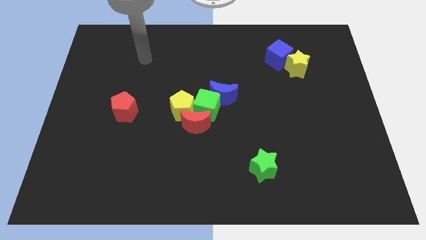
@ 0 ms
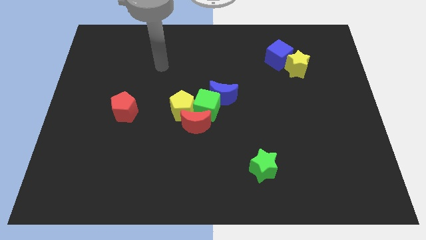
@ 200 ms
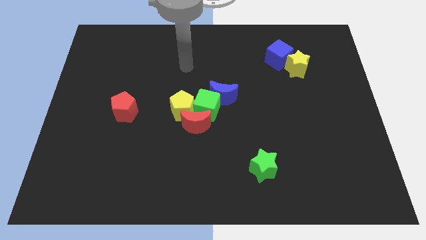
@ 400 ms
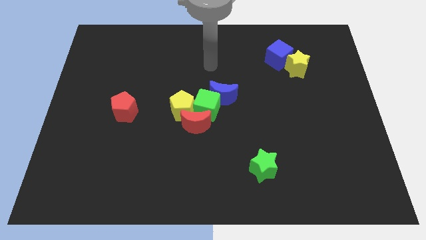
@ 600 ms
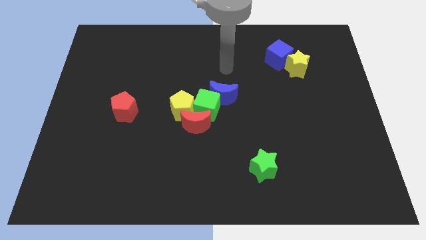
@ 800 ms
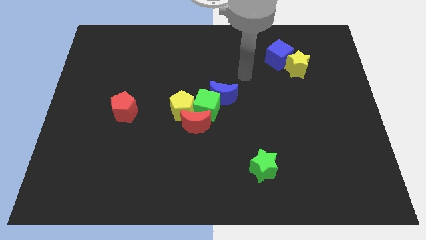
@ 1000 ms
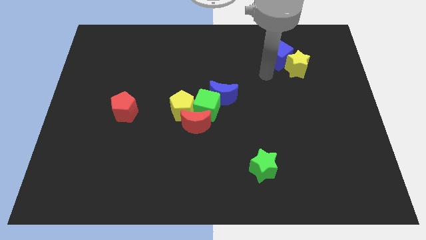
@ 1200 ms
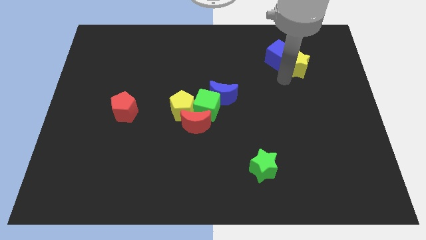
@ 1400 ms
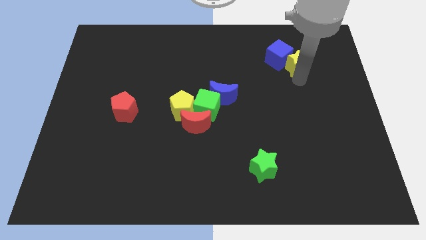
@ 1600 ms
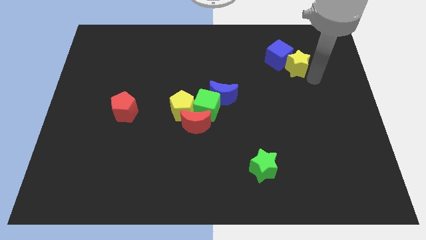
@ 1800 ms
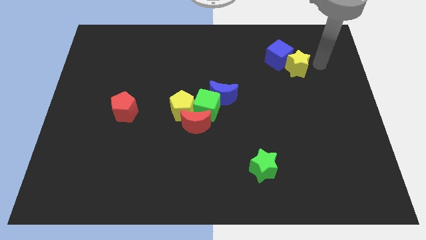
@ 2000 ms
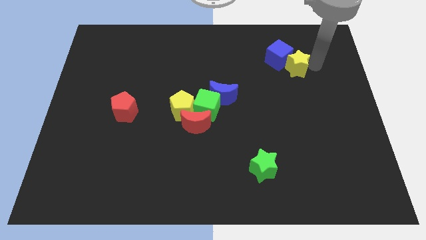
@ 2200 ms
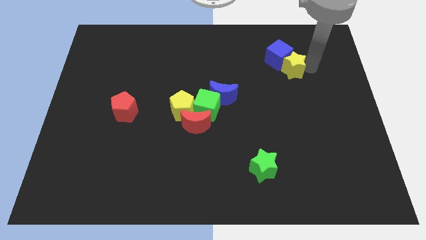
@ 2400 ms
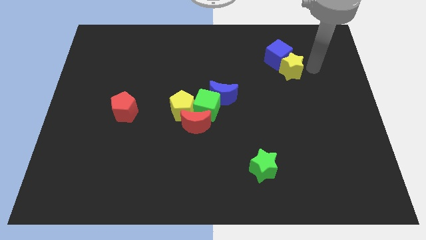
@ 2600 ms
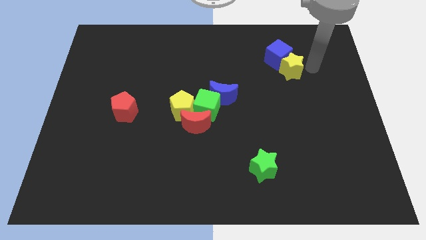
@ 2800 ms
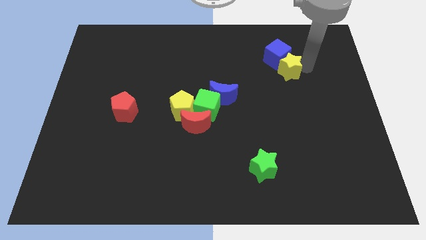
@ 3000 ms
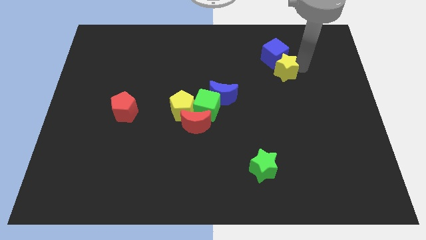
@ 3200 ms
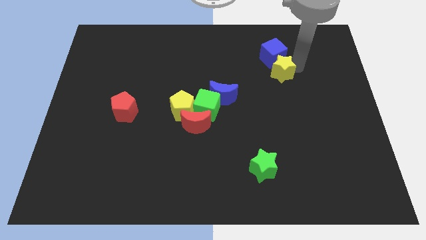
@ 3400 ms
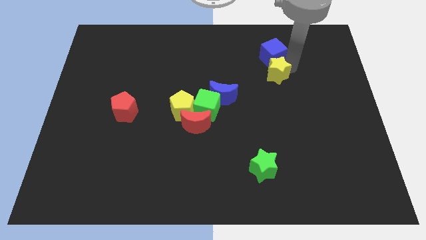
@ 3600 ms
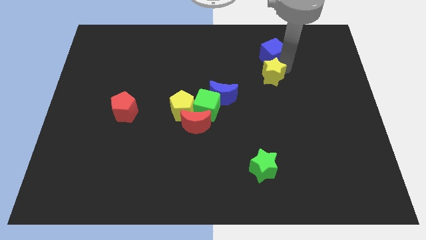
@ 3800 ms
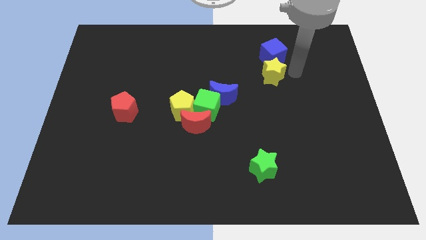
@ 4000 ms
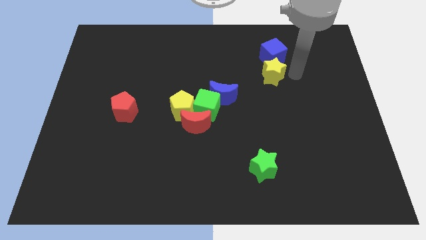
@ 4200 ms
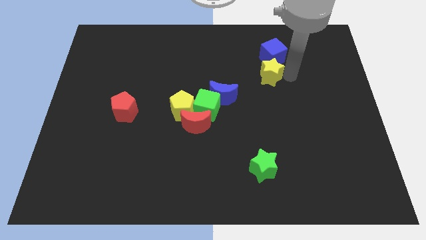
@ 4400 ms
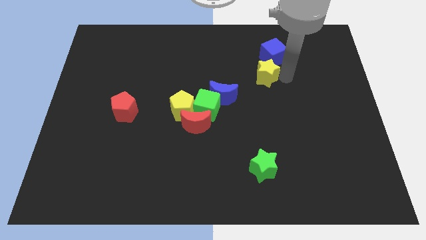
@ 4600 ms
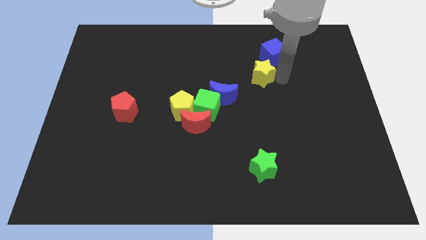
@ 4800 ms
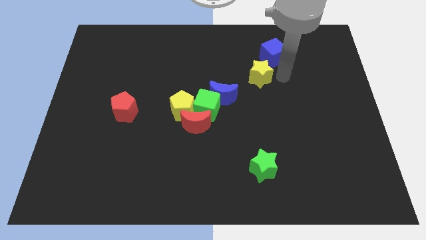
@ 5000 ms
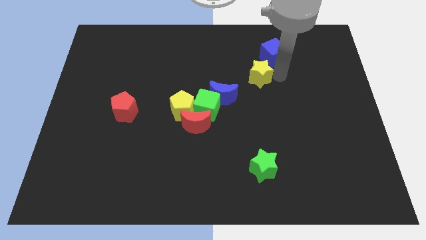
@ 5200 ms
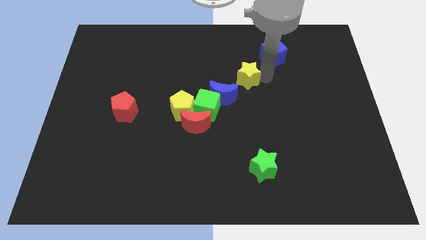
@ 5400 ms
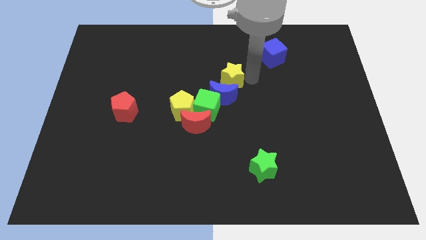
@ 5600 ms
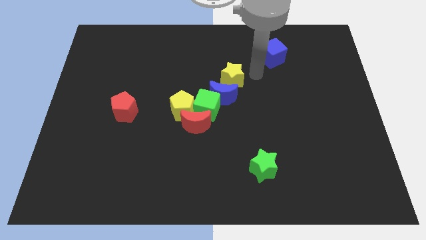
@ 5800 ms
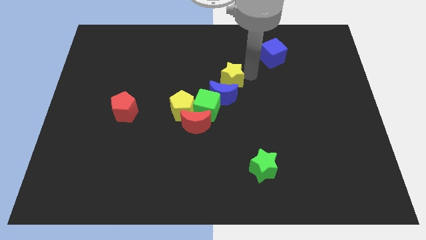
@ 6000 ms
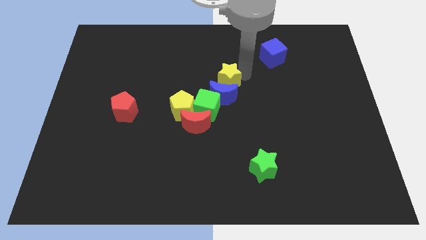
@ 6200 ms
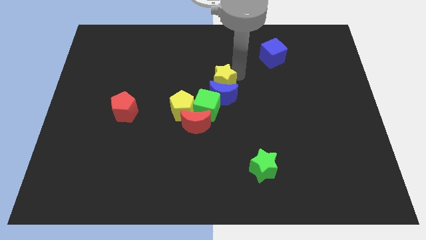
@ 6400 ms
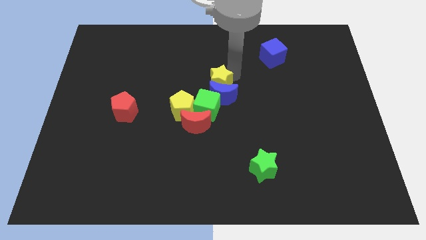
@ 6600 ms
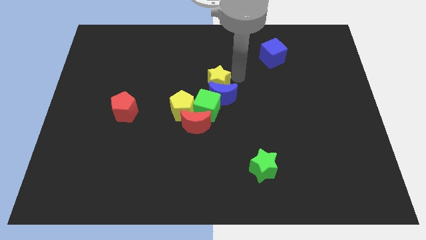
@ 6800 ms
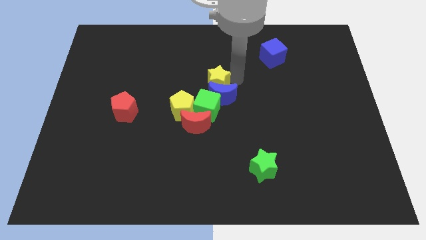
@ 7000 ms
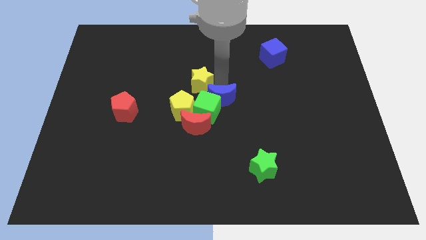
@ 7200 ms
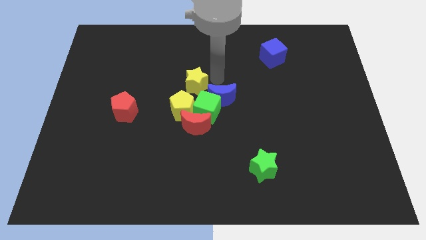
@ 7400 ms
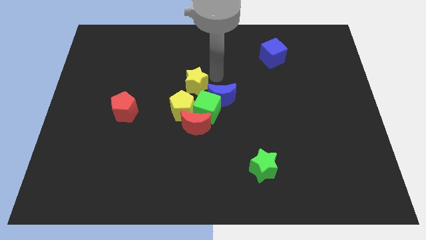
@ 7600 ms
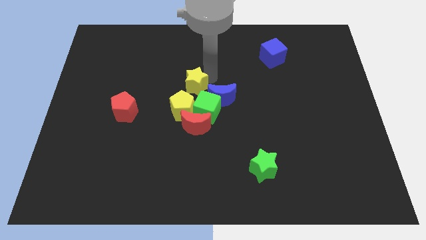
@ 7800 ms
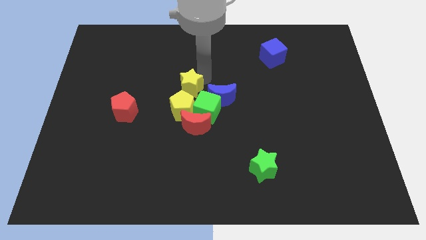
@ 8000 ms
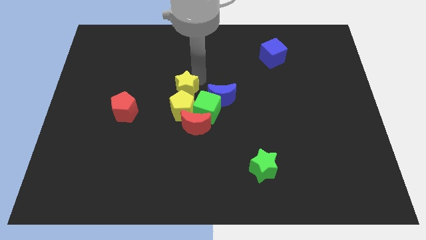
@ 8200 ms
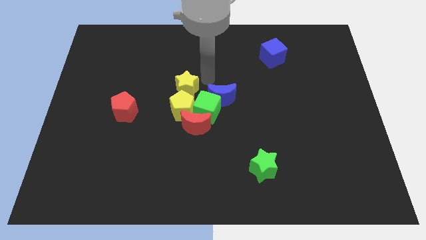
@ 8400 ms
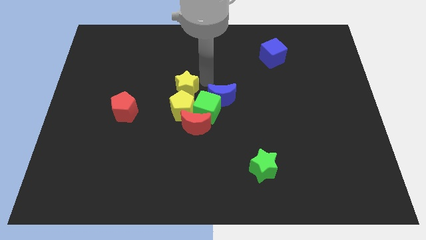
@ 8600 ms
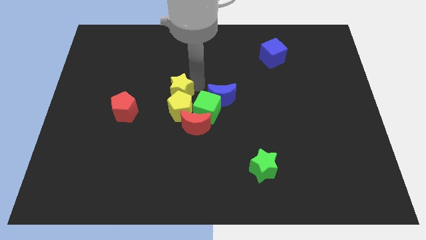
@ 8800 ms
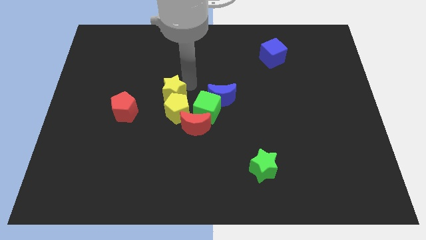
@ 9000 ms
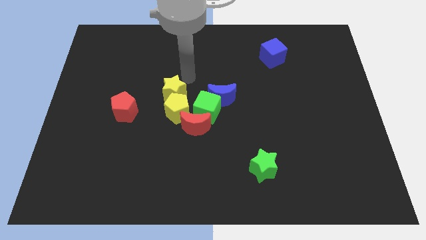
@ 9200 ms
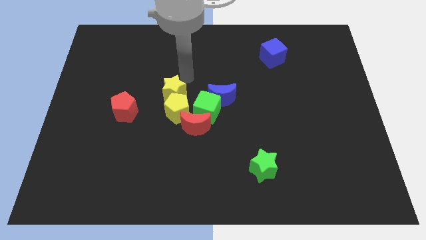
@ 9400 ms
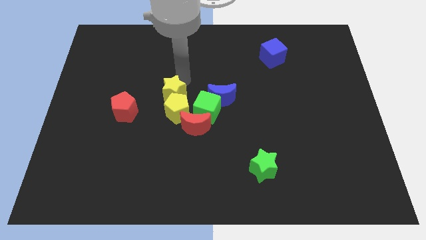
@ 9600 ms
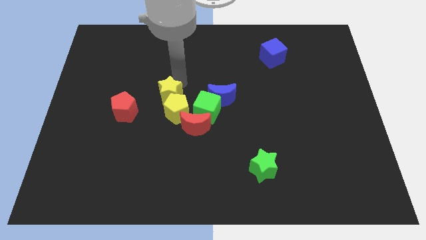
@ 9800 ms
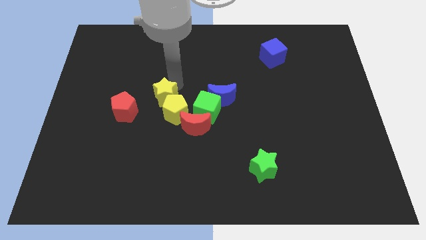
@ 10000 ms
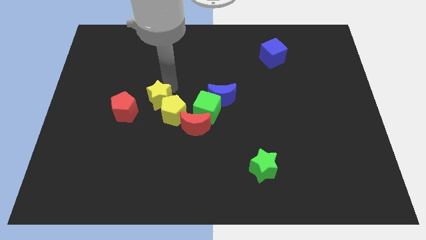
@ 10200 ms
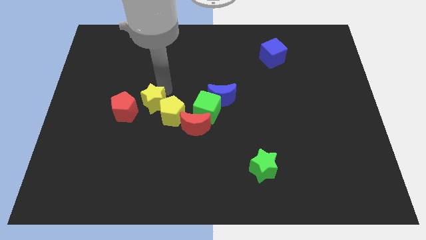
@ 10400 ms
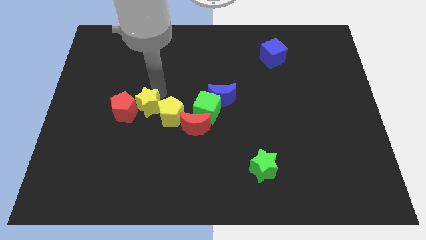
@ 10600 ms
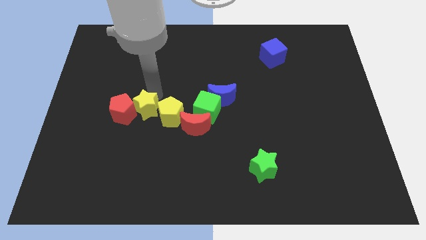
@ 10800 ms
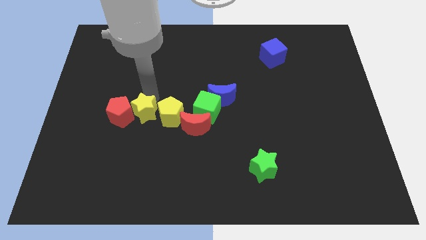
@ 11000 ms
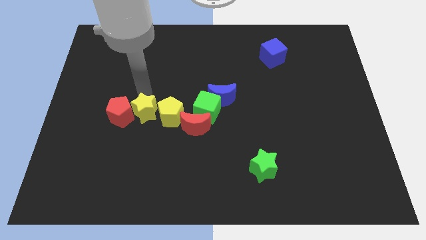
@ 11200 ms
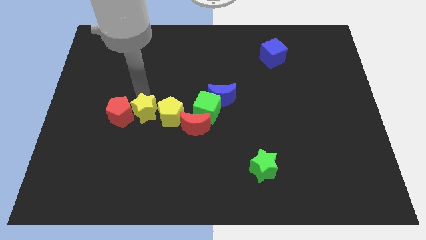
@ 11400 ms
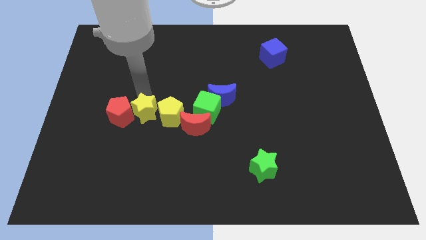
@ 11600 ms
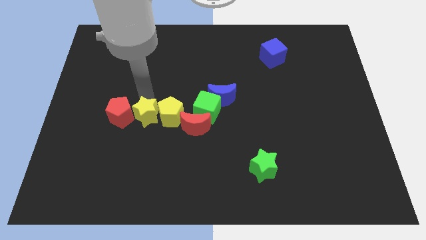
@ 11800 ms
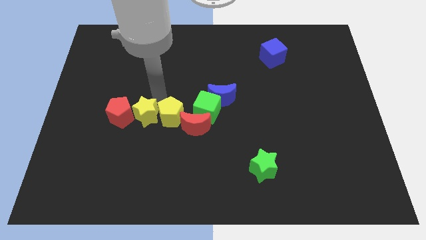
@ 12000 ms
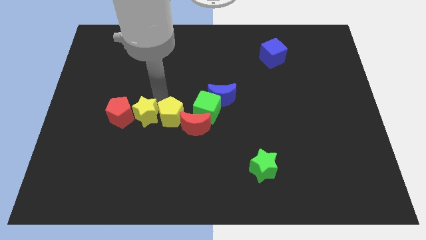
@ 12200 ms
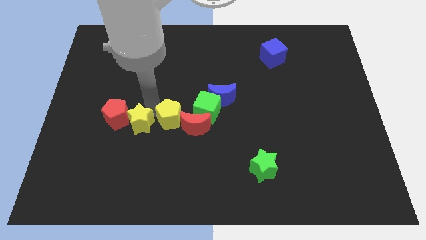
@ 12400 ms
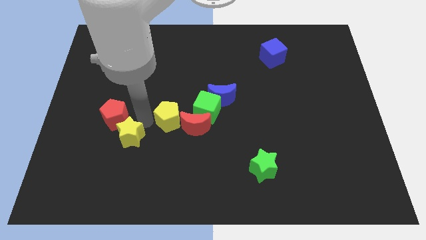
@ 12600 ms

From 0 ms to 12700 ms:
move the yellow star to the bottom of the red pentagon

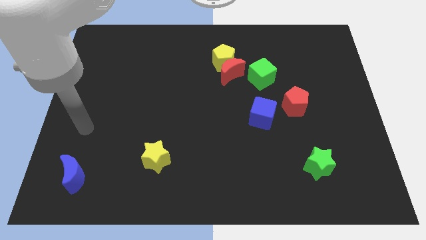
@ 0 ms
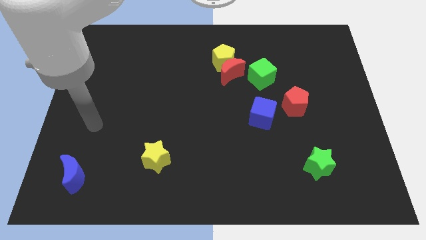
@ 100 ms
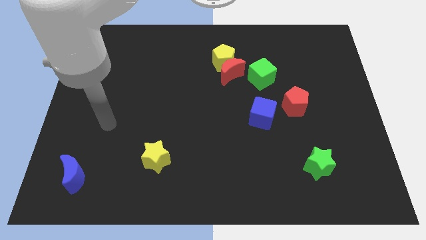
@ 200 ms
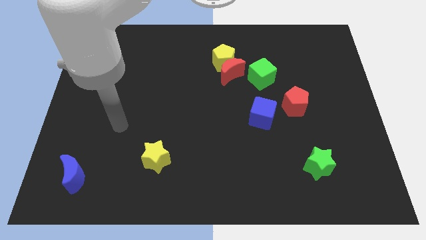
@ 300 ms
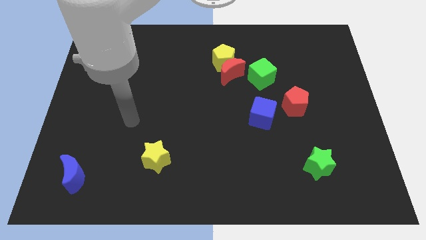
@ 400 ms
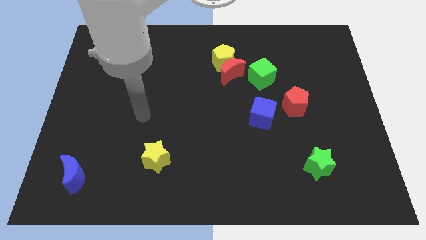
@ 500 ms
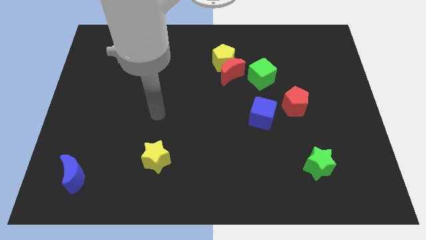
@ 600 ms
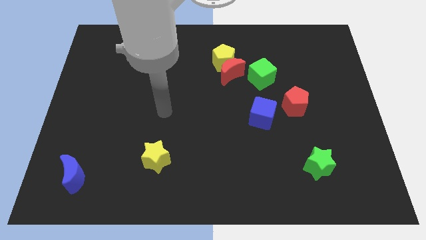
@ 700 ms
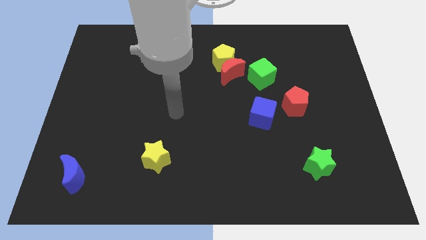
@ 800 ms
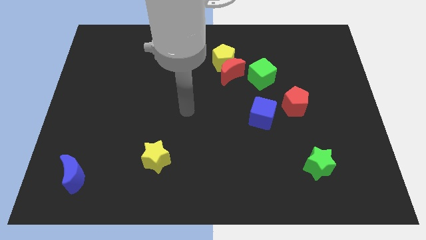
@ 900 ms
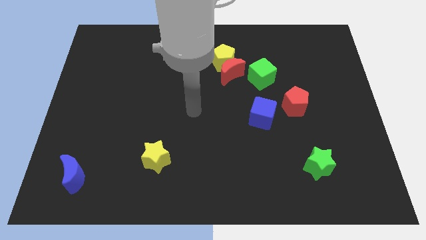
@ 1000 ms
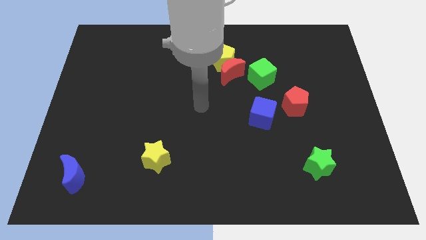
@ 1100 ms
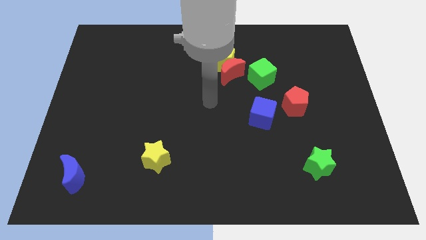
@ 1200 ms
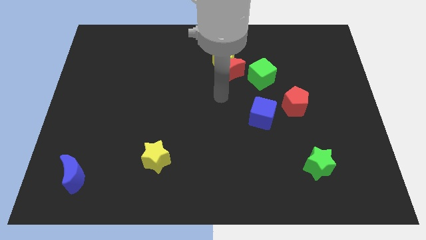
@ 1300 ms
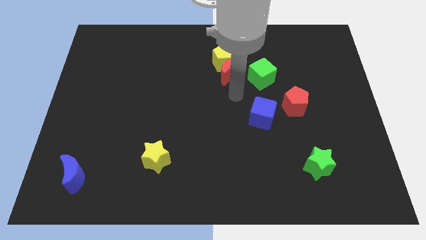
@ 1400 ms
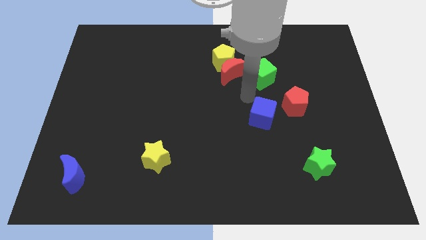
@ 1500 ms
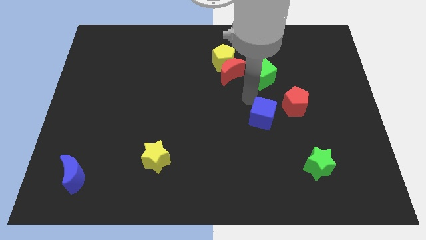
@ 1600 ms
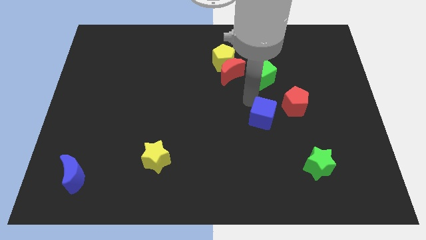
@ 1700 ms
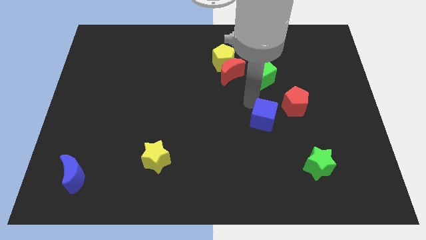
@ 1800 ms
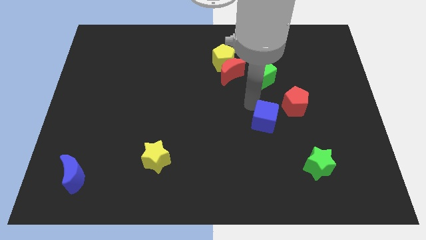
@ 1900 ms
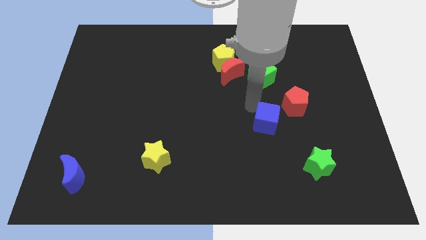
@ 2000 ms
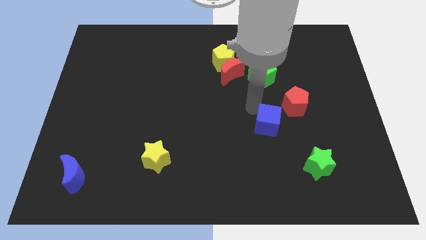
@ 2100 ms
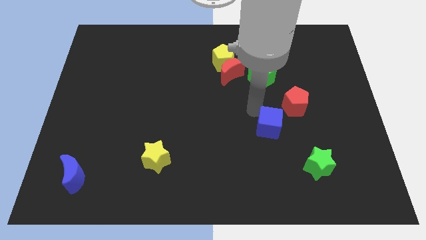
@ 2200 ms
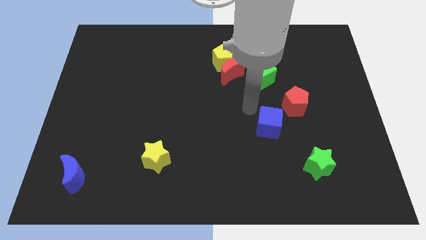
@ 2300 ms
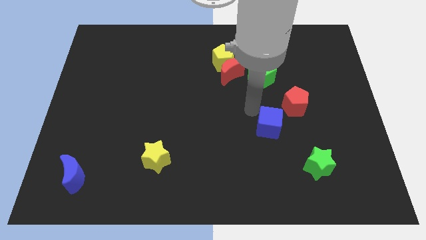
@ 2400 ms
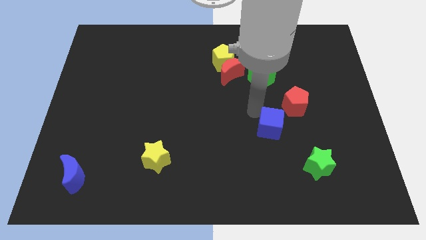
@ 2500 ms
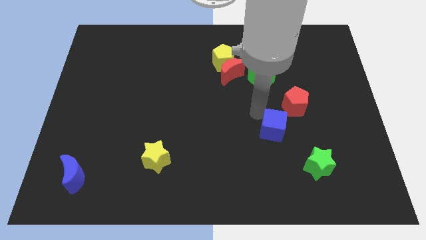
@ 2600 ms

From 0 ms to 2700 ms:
push the blue cube to the top left side of the green star
